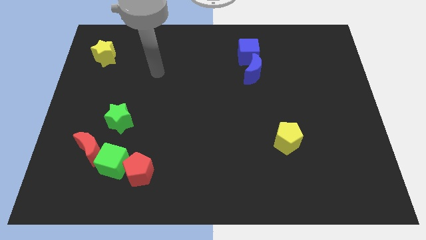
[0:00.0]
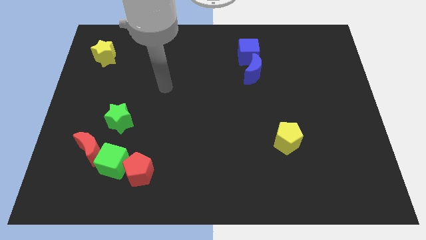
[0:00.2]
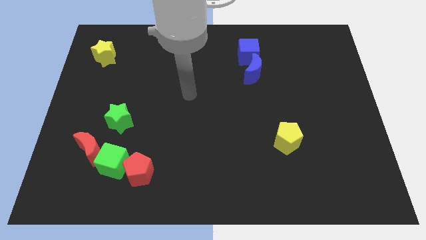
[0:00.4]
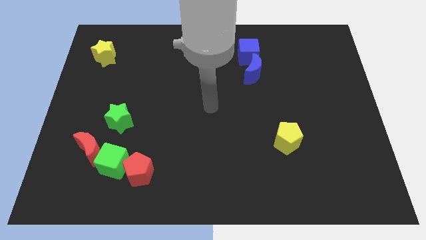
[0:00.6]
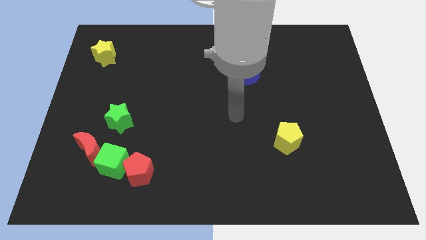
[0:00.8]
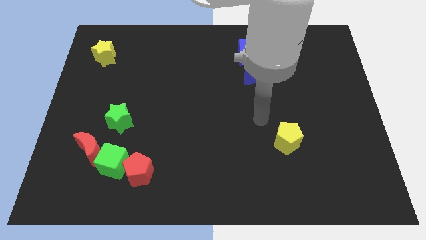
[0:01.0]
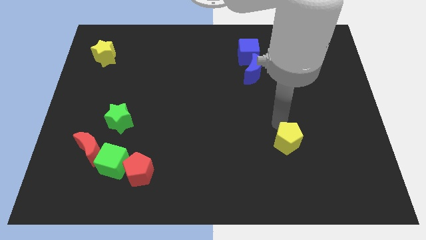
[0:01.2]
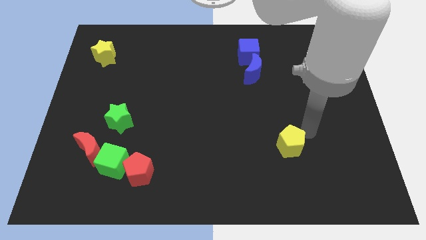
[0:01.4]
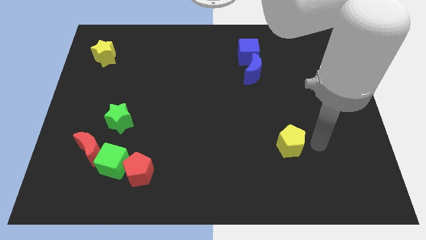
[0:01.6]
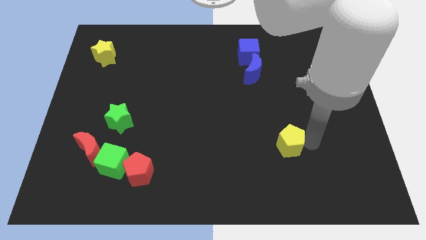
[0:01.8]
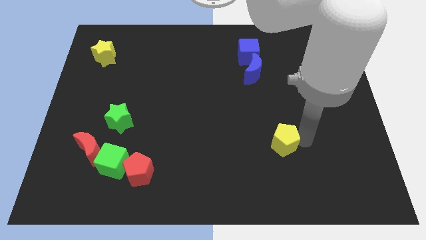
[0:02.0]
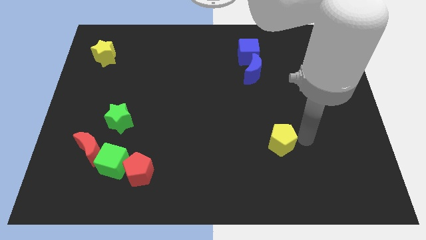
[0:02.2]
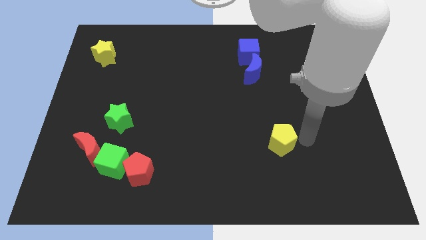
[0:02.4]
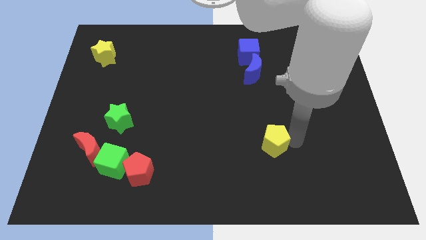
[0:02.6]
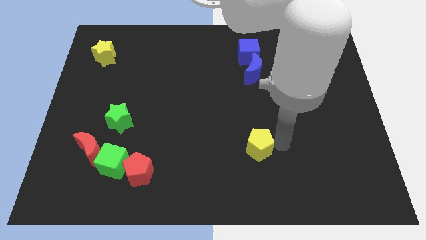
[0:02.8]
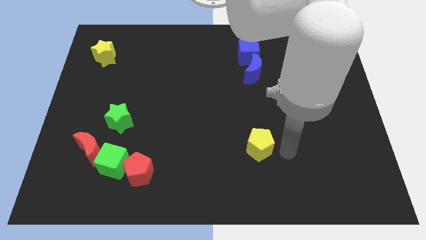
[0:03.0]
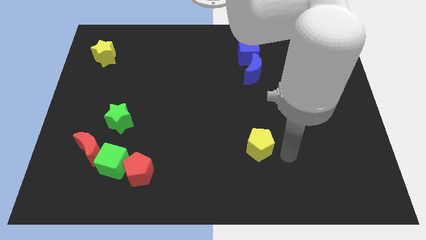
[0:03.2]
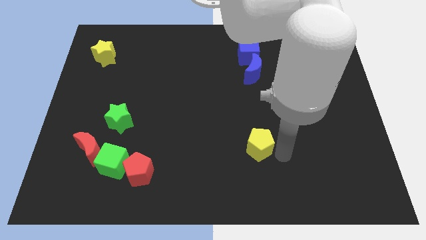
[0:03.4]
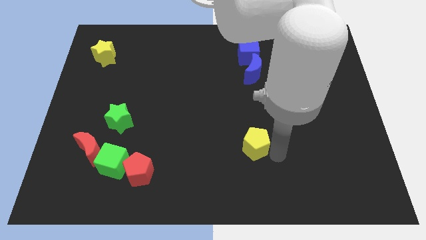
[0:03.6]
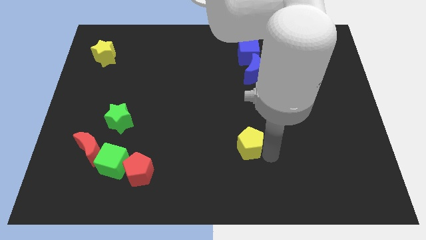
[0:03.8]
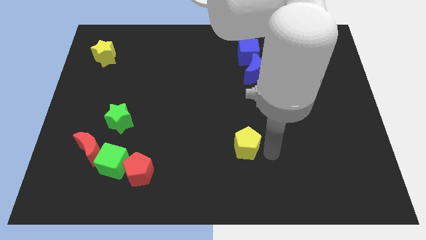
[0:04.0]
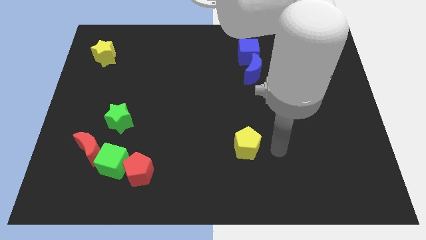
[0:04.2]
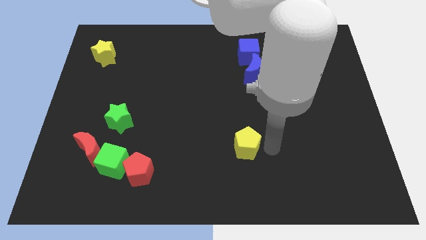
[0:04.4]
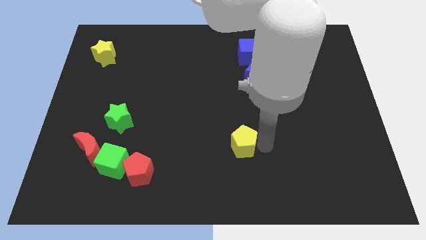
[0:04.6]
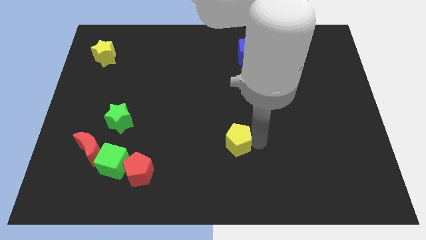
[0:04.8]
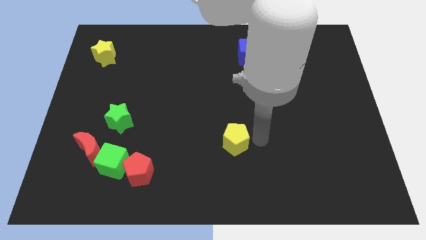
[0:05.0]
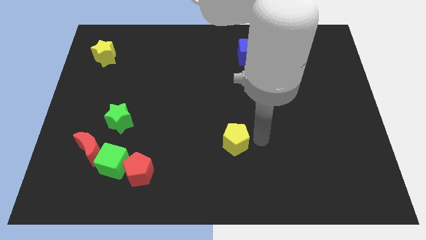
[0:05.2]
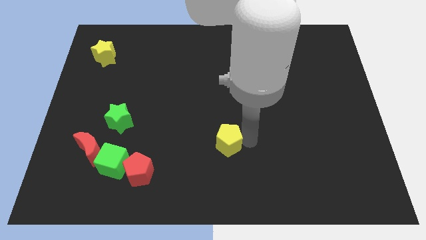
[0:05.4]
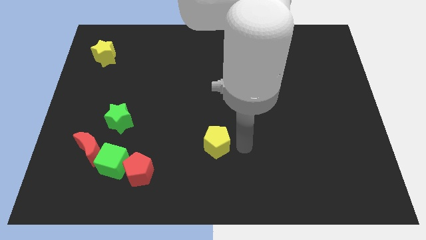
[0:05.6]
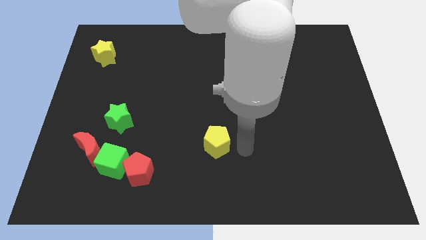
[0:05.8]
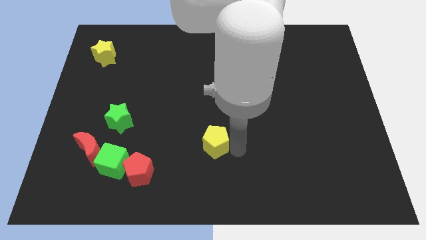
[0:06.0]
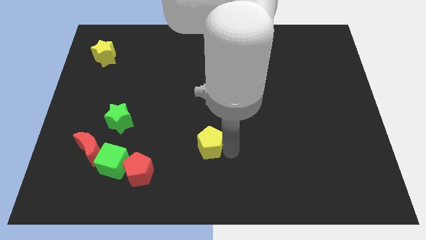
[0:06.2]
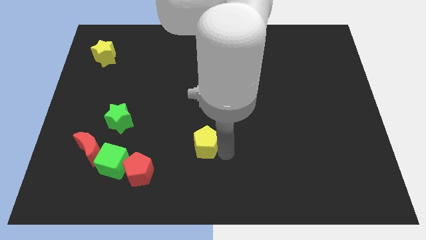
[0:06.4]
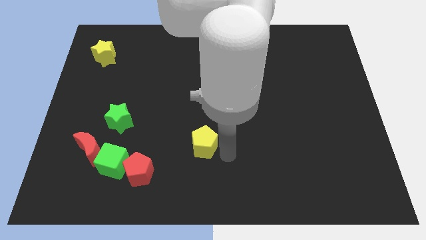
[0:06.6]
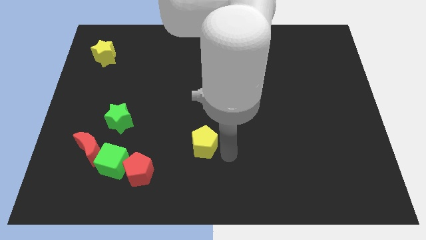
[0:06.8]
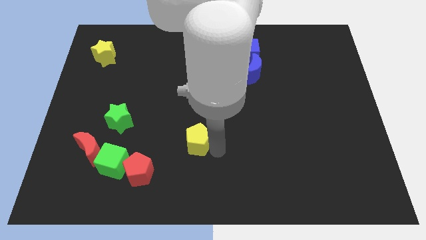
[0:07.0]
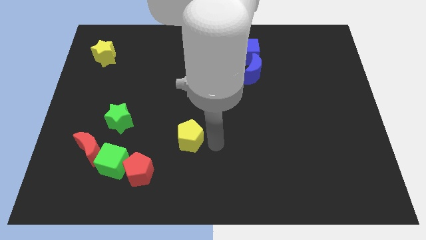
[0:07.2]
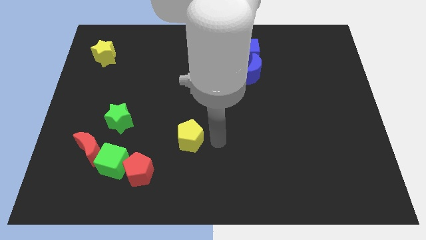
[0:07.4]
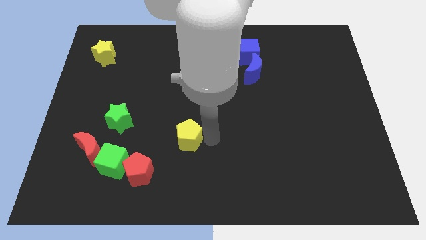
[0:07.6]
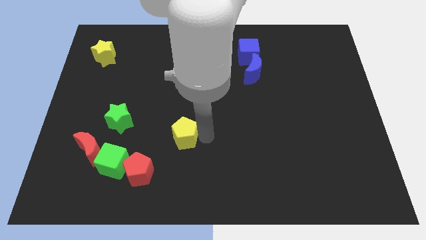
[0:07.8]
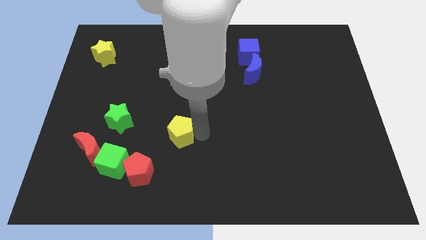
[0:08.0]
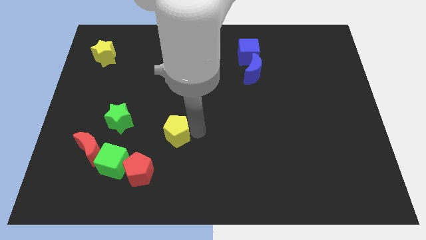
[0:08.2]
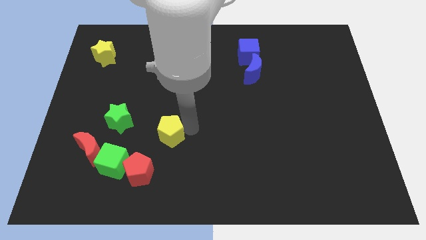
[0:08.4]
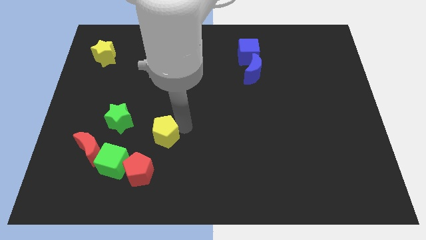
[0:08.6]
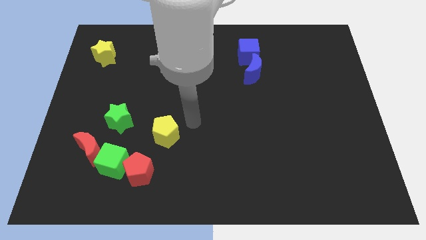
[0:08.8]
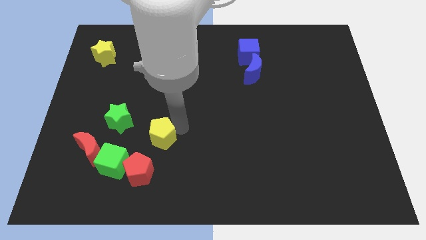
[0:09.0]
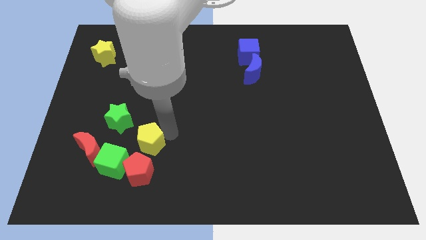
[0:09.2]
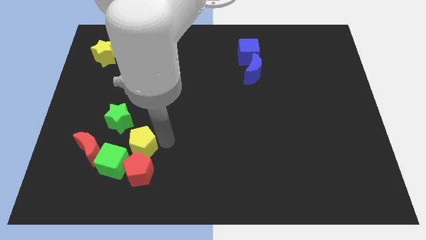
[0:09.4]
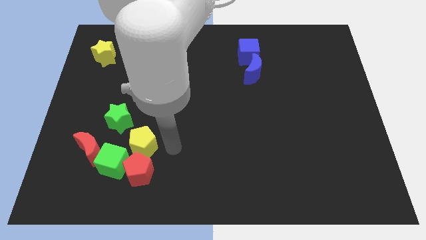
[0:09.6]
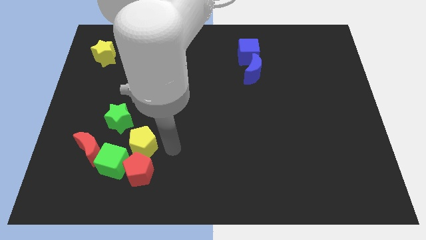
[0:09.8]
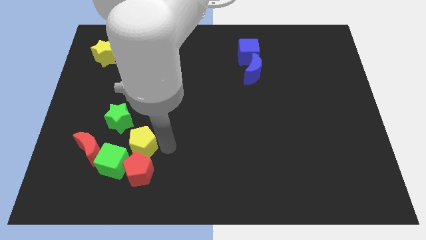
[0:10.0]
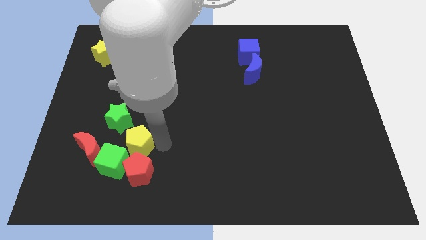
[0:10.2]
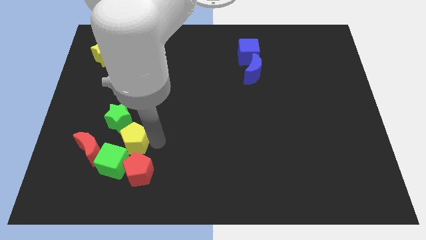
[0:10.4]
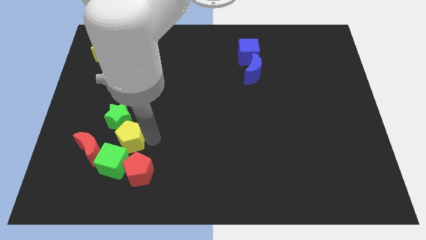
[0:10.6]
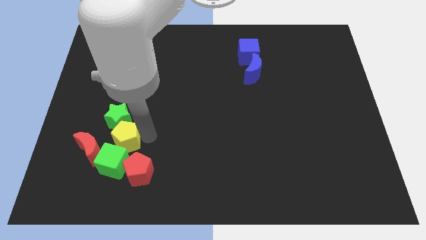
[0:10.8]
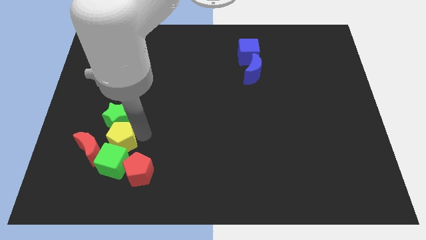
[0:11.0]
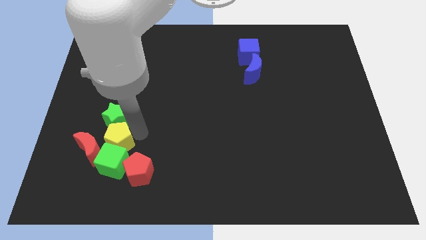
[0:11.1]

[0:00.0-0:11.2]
slide the yellow pentagon close to the red moon

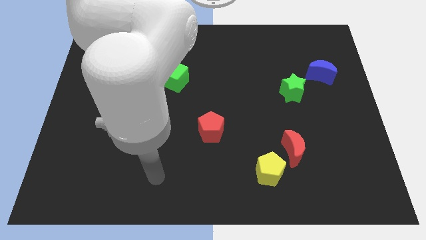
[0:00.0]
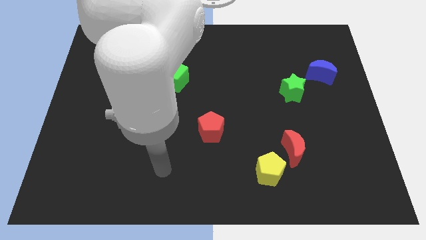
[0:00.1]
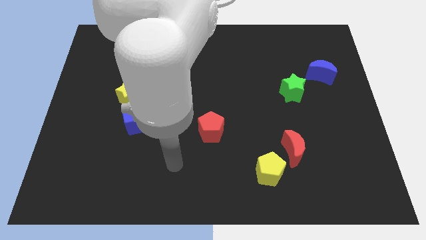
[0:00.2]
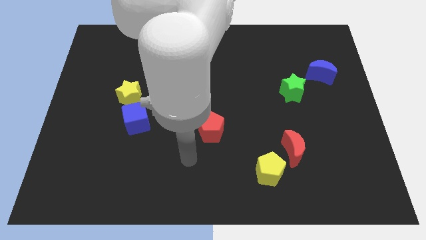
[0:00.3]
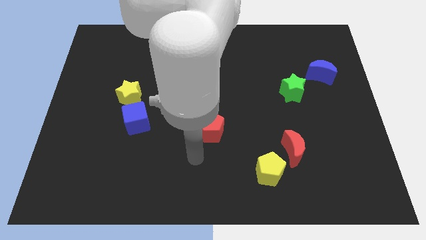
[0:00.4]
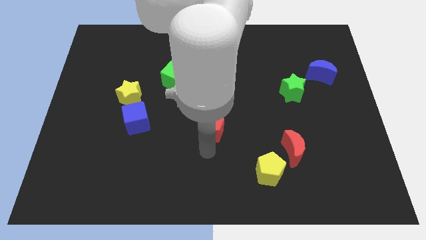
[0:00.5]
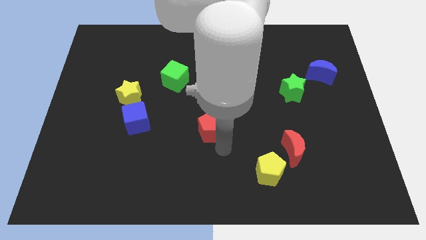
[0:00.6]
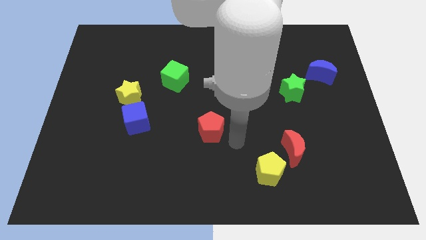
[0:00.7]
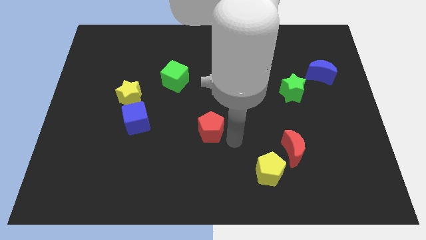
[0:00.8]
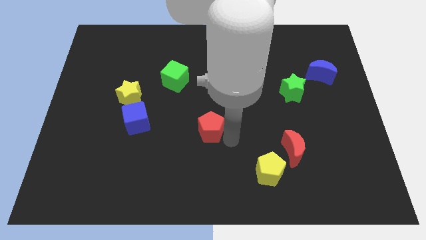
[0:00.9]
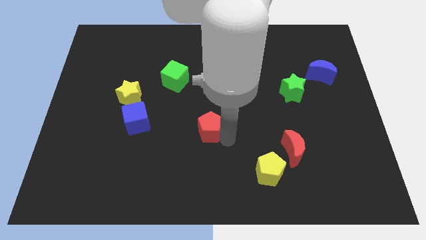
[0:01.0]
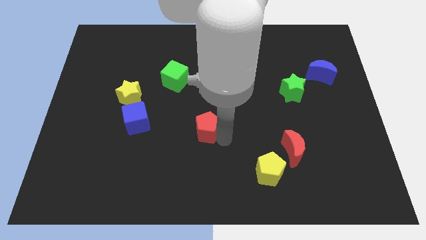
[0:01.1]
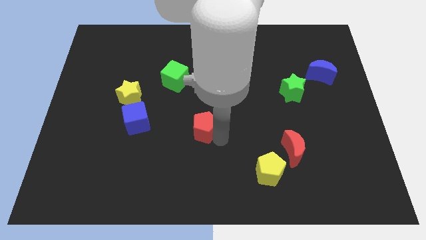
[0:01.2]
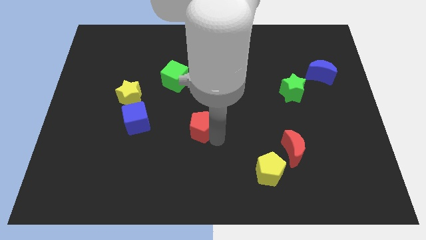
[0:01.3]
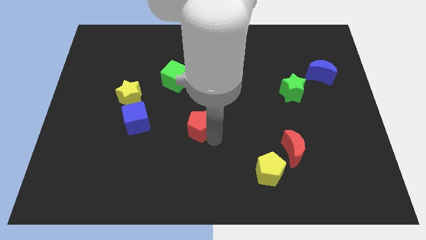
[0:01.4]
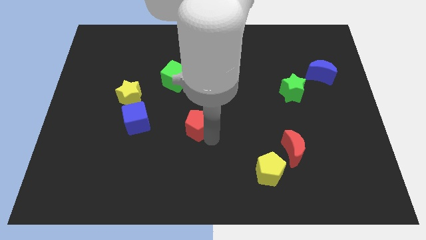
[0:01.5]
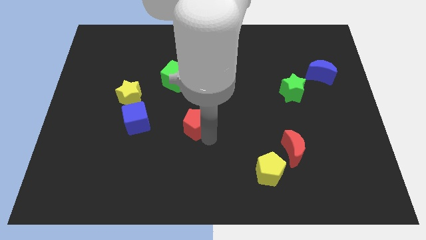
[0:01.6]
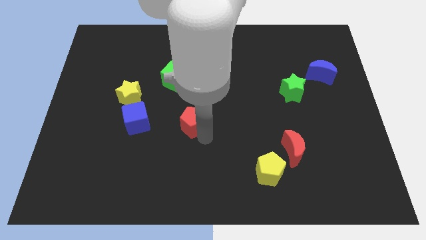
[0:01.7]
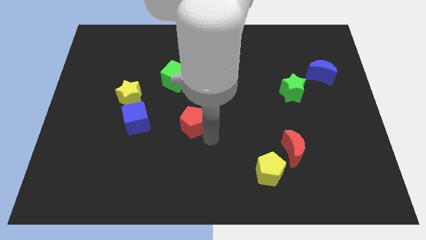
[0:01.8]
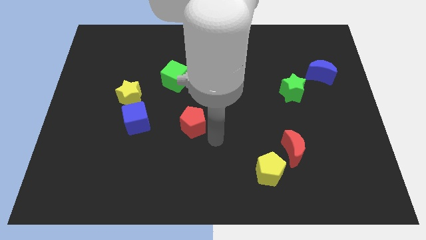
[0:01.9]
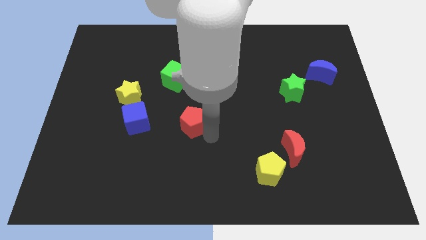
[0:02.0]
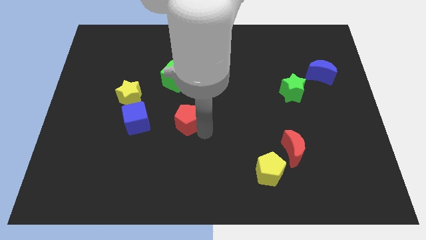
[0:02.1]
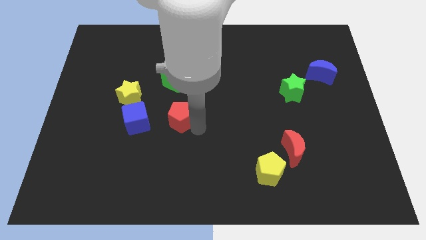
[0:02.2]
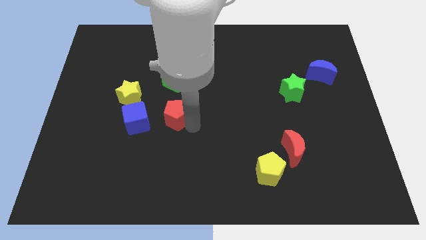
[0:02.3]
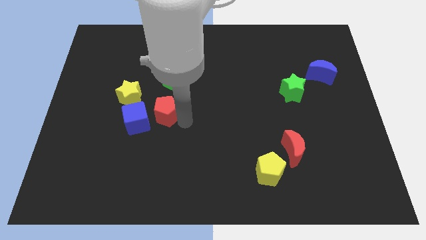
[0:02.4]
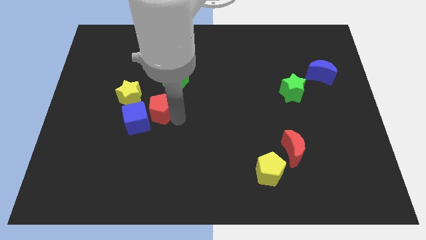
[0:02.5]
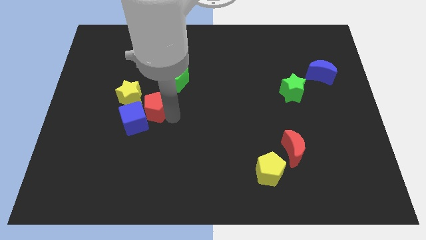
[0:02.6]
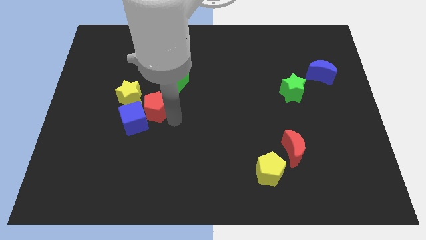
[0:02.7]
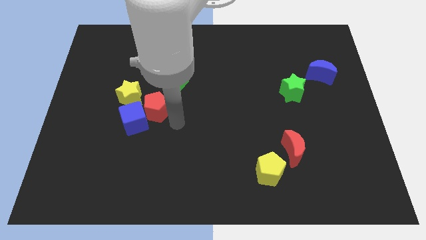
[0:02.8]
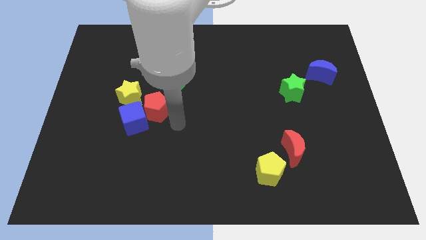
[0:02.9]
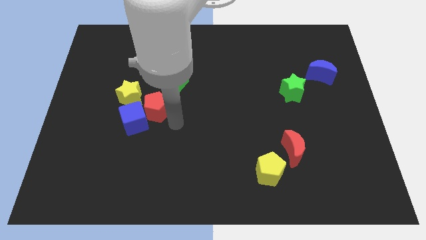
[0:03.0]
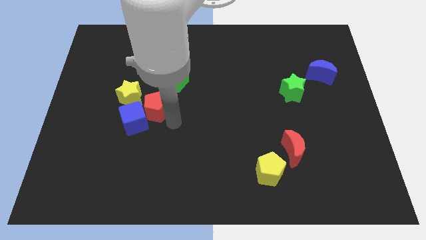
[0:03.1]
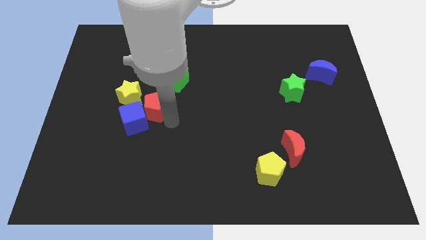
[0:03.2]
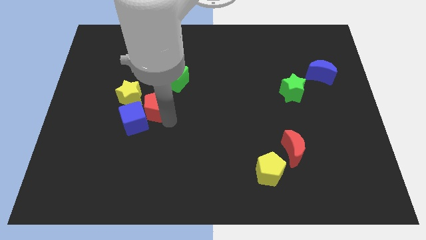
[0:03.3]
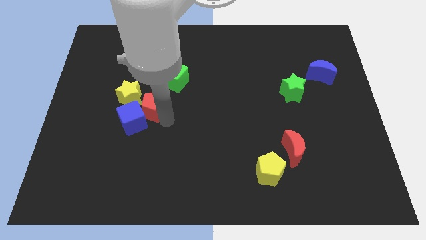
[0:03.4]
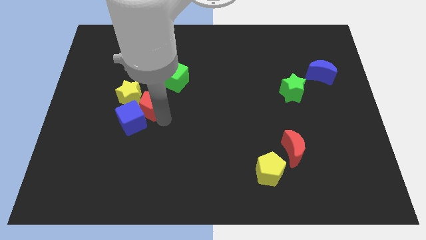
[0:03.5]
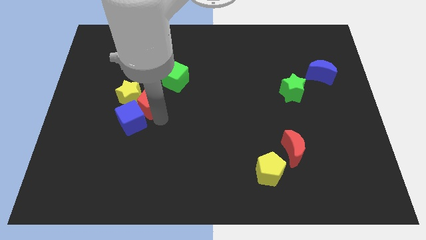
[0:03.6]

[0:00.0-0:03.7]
slide the red pentagon towards the yellow star
